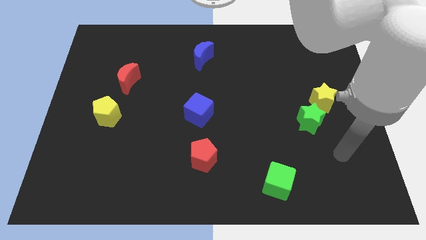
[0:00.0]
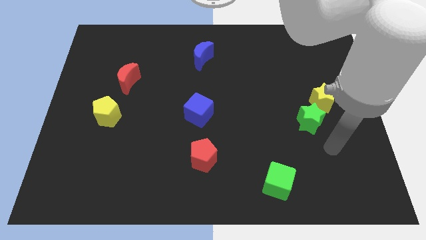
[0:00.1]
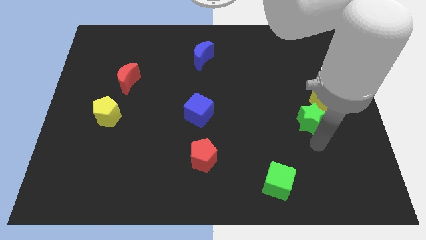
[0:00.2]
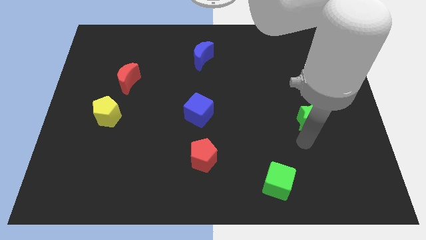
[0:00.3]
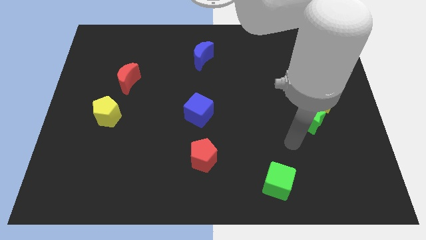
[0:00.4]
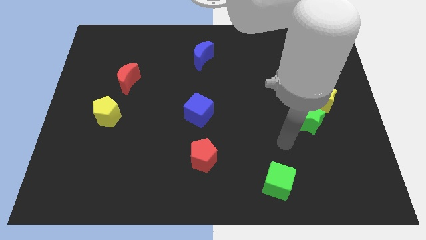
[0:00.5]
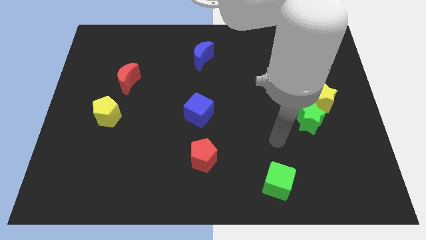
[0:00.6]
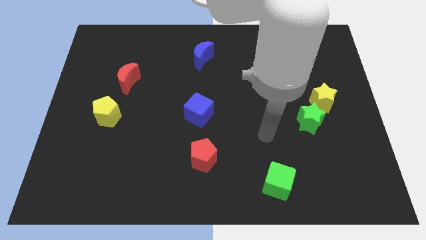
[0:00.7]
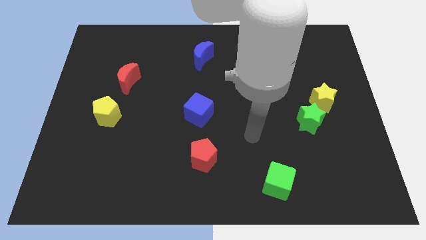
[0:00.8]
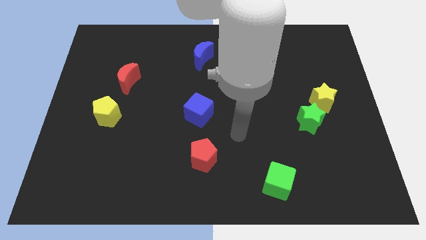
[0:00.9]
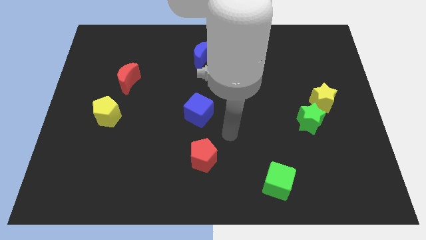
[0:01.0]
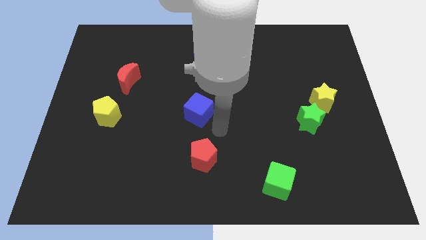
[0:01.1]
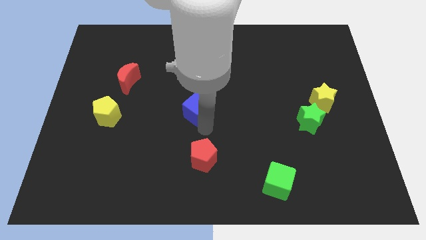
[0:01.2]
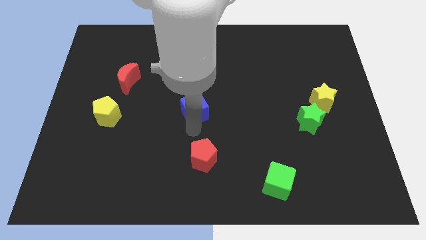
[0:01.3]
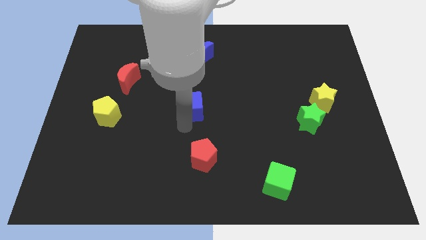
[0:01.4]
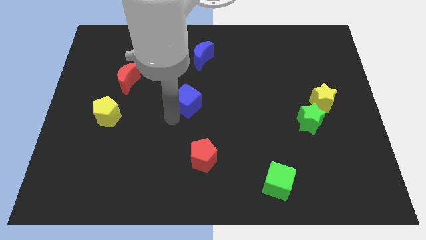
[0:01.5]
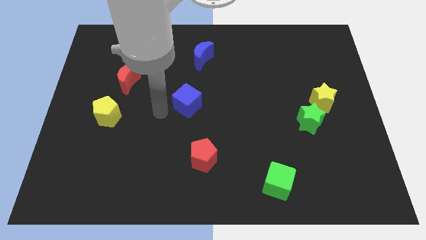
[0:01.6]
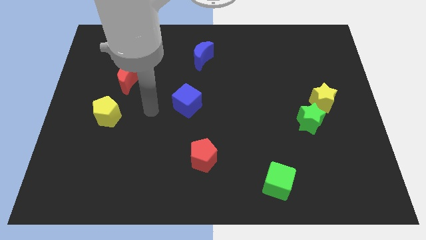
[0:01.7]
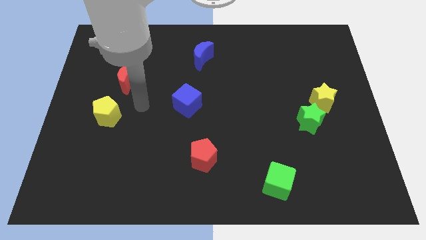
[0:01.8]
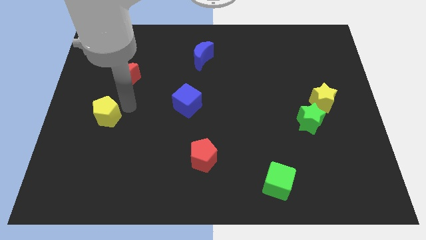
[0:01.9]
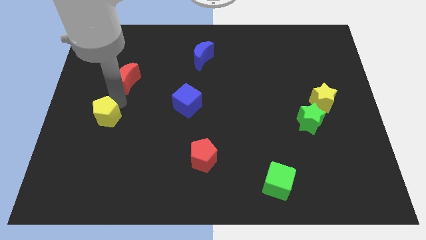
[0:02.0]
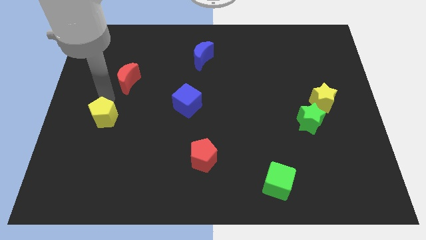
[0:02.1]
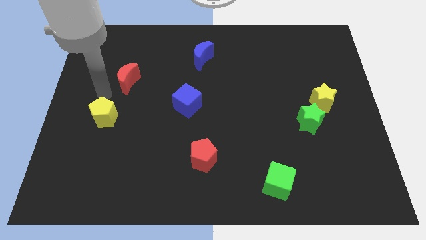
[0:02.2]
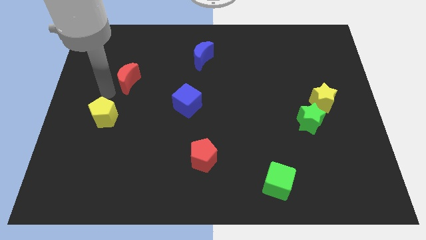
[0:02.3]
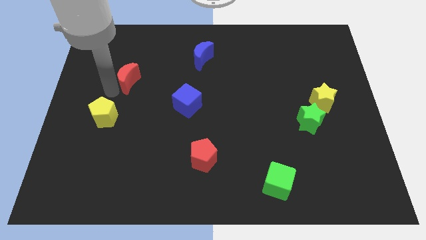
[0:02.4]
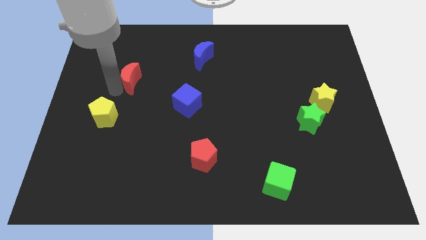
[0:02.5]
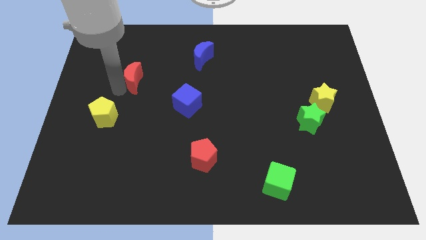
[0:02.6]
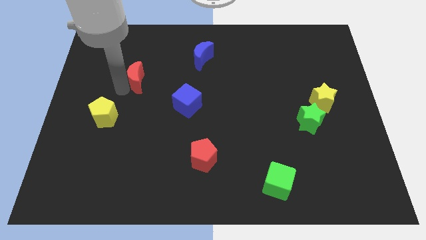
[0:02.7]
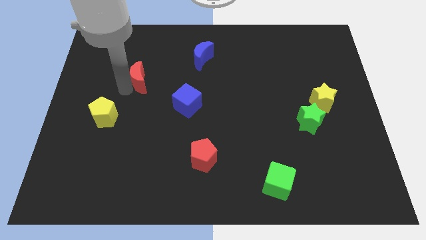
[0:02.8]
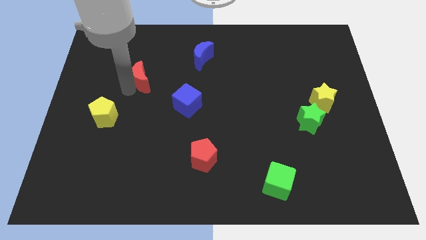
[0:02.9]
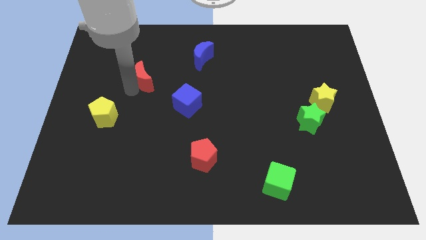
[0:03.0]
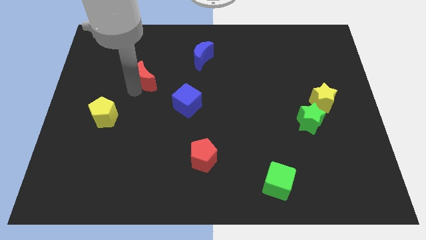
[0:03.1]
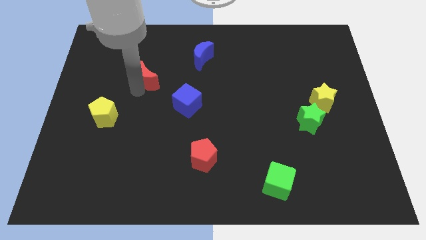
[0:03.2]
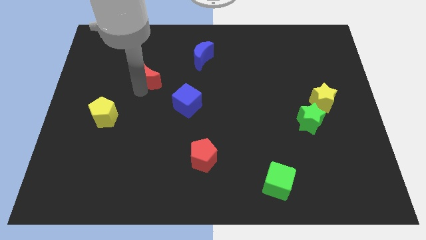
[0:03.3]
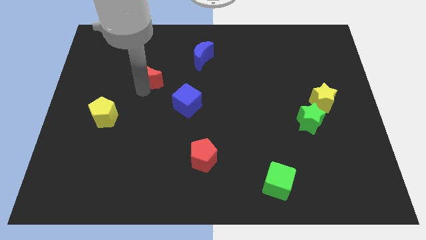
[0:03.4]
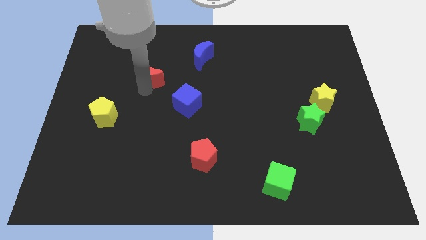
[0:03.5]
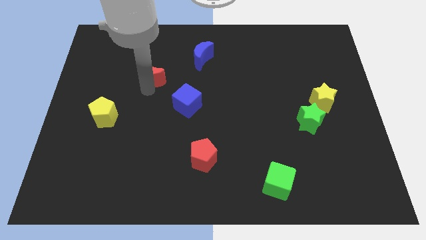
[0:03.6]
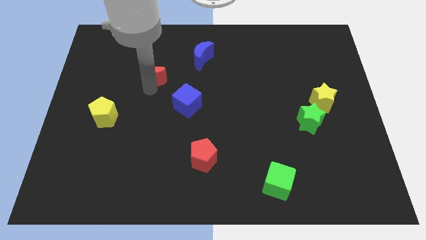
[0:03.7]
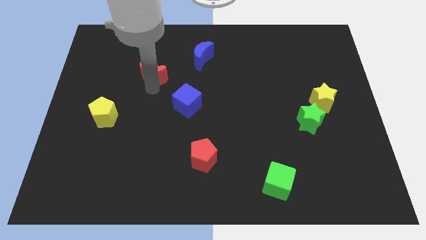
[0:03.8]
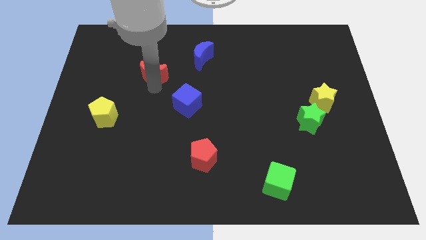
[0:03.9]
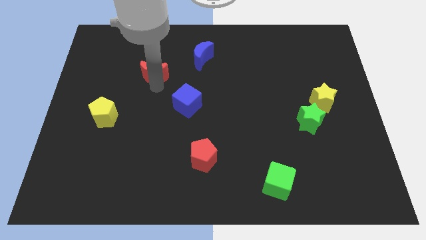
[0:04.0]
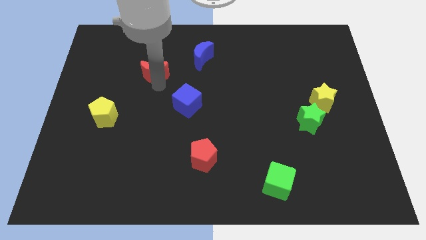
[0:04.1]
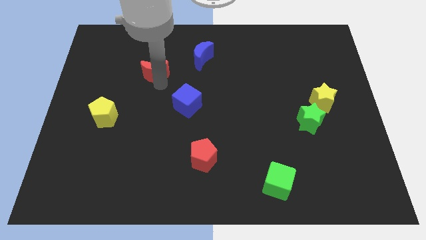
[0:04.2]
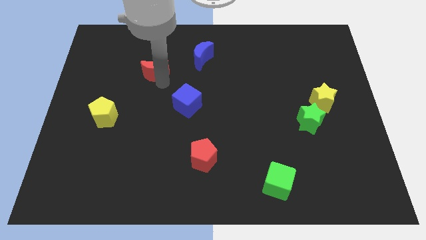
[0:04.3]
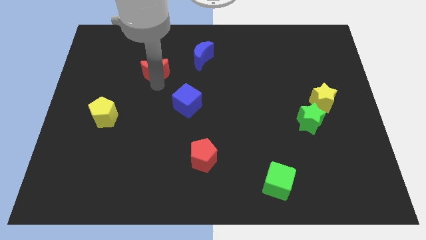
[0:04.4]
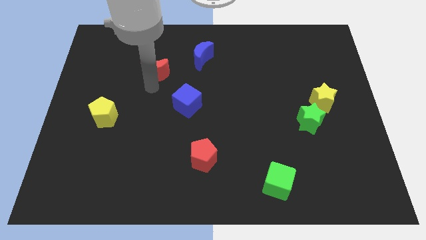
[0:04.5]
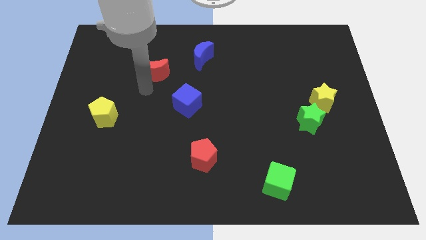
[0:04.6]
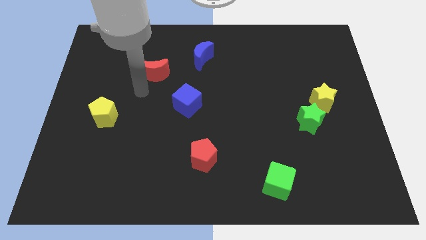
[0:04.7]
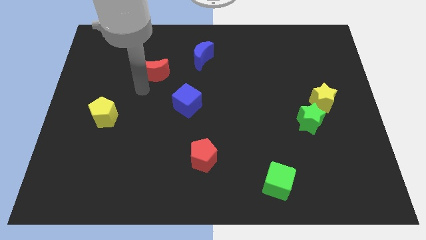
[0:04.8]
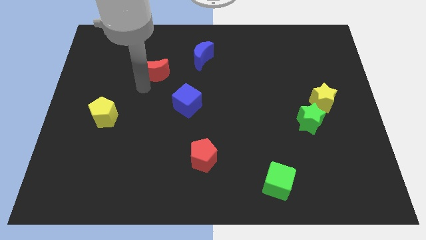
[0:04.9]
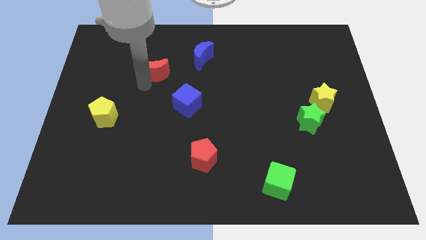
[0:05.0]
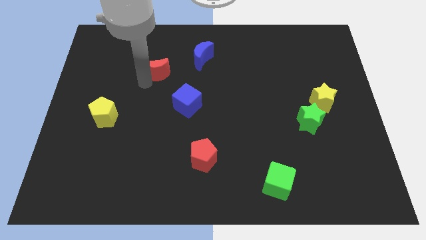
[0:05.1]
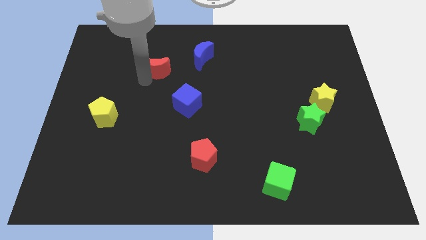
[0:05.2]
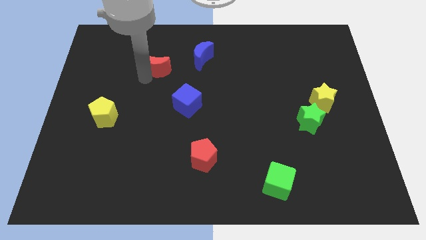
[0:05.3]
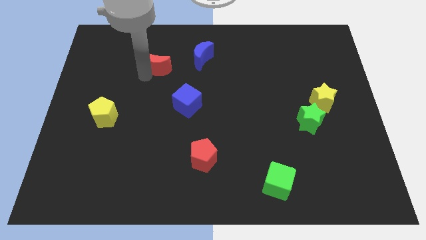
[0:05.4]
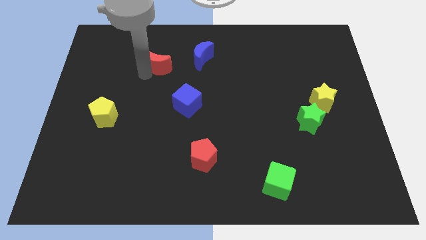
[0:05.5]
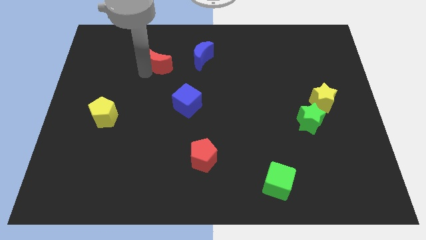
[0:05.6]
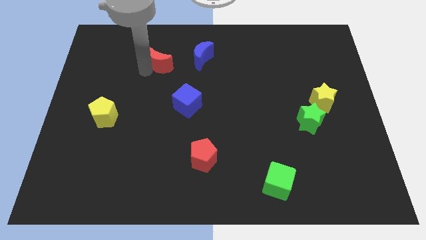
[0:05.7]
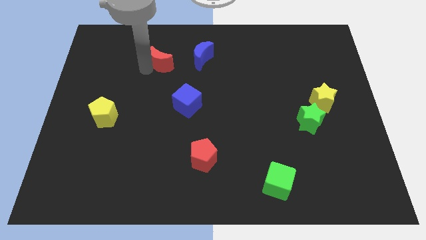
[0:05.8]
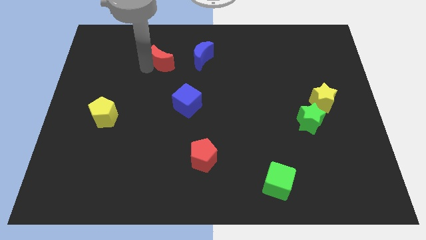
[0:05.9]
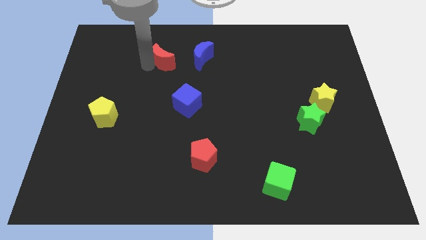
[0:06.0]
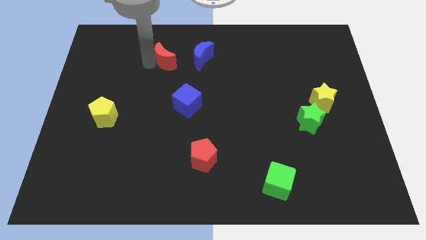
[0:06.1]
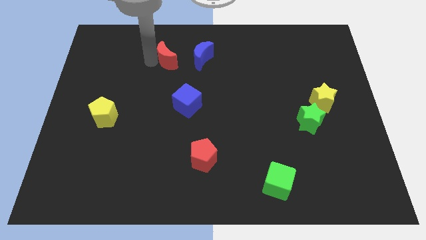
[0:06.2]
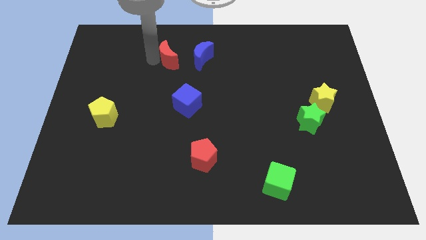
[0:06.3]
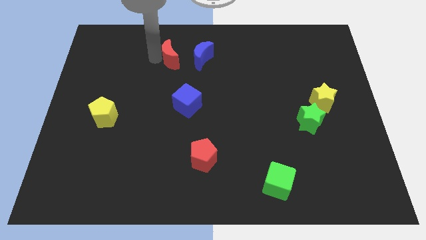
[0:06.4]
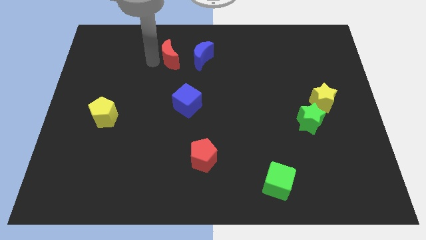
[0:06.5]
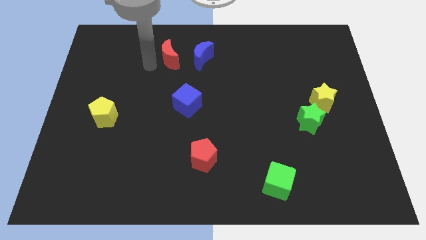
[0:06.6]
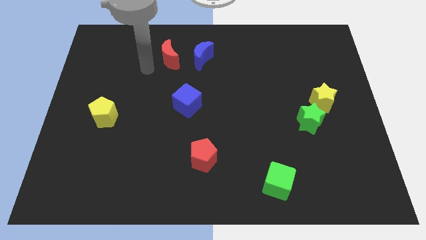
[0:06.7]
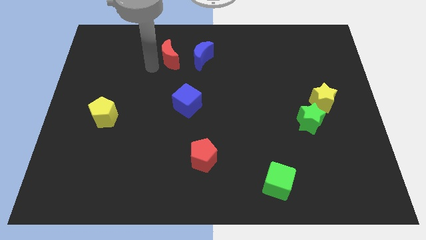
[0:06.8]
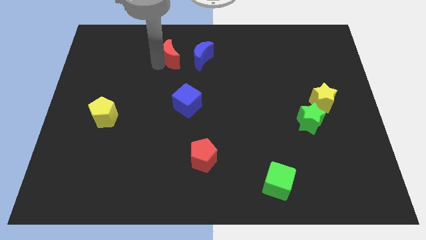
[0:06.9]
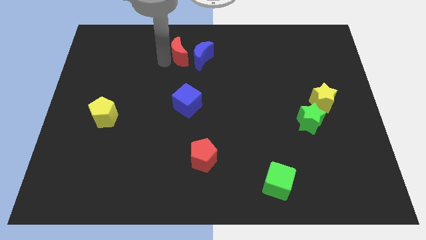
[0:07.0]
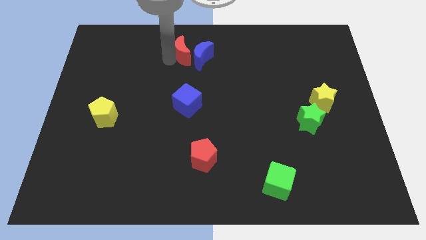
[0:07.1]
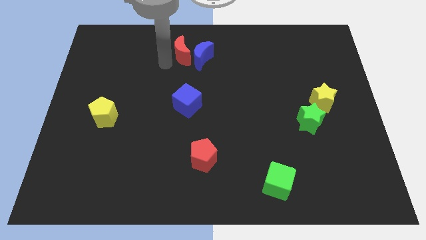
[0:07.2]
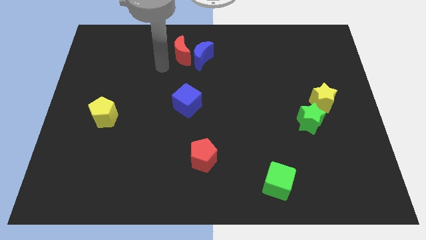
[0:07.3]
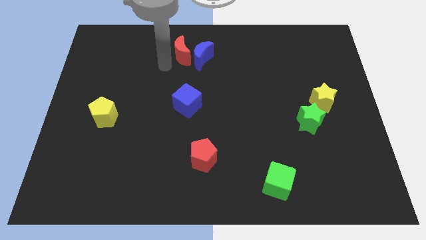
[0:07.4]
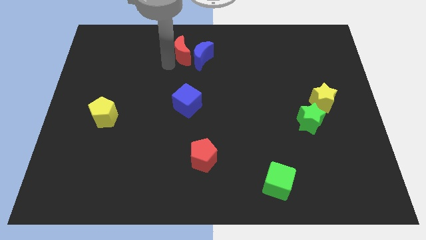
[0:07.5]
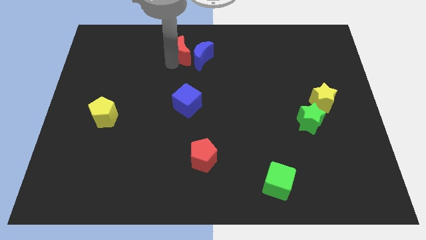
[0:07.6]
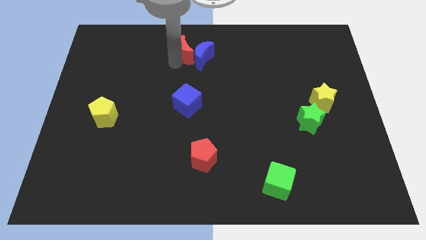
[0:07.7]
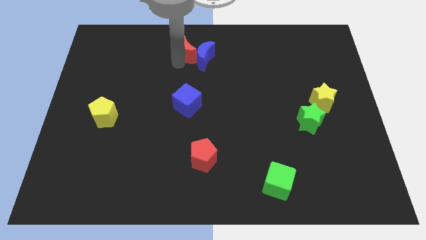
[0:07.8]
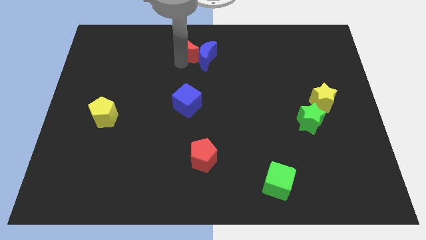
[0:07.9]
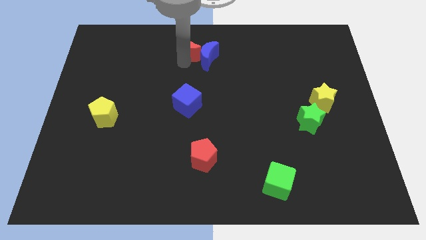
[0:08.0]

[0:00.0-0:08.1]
move the red moon to the towards your base
